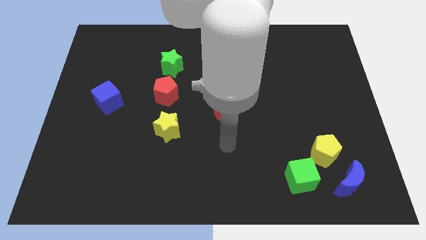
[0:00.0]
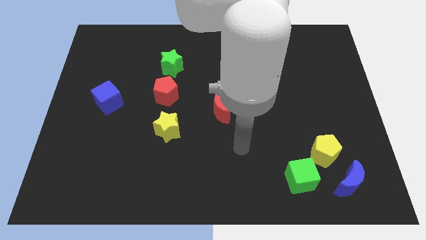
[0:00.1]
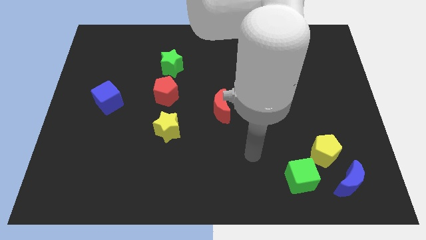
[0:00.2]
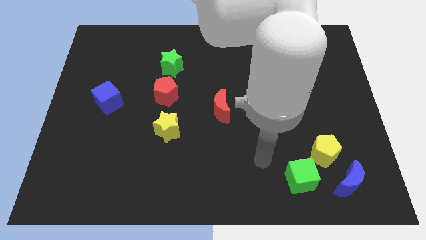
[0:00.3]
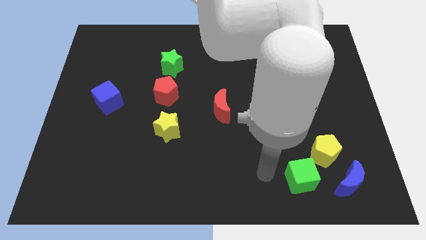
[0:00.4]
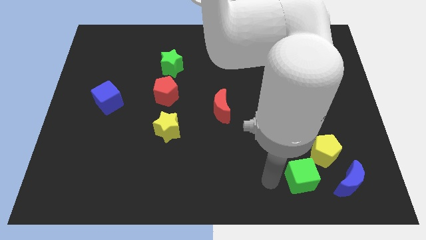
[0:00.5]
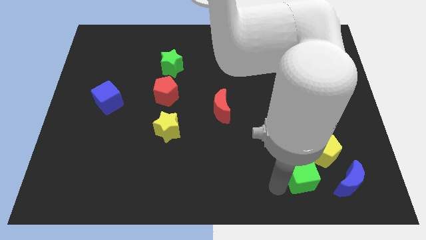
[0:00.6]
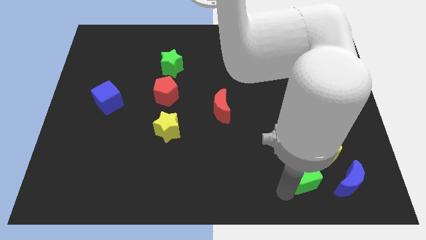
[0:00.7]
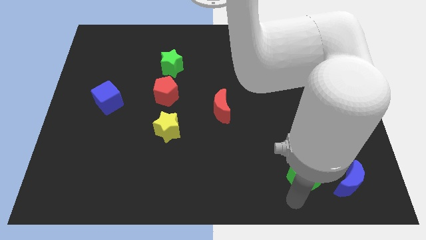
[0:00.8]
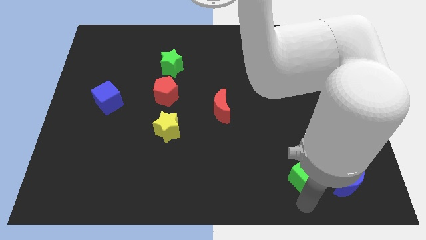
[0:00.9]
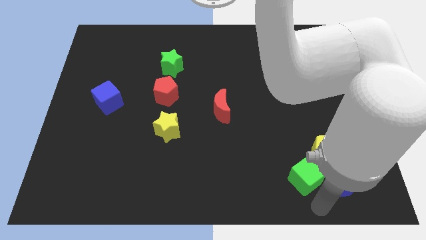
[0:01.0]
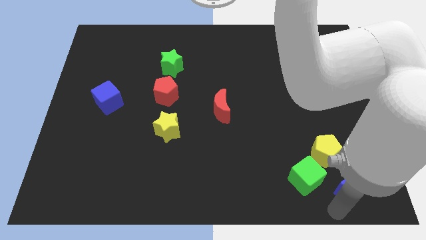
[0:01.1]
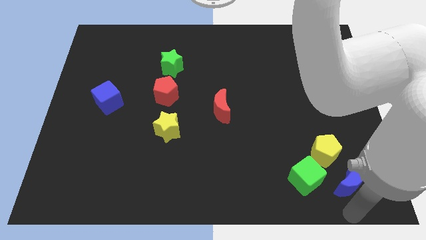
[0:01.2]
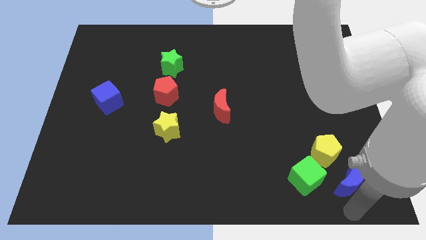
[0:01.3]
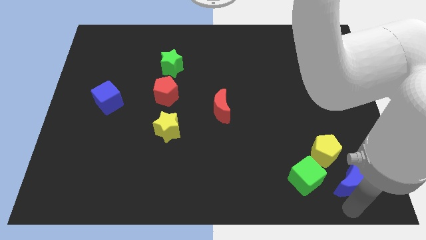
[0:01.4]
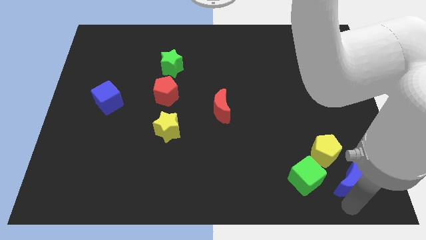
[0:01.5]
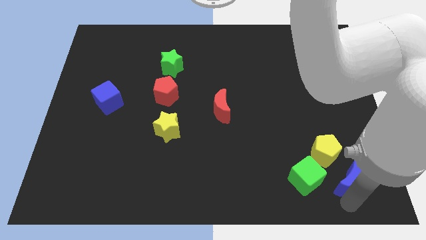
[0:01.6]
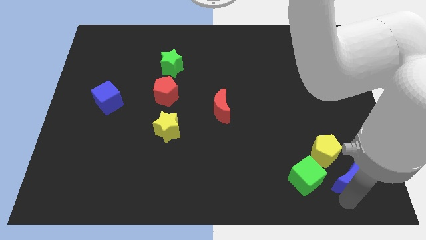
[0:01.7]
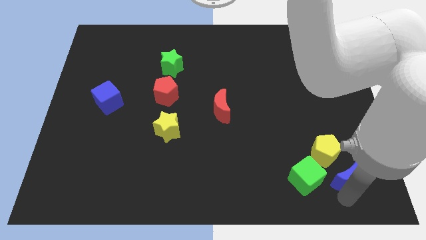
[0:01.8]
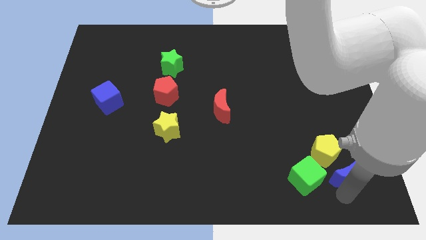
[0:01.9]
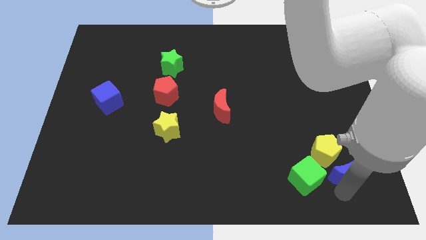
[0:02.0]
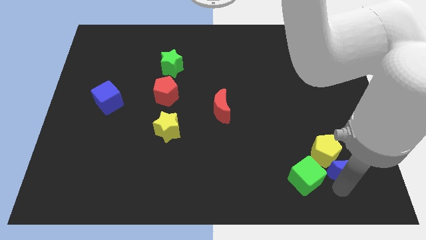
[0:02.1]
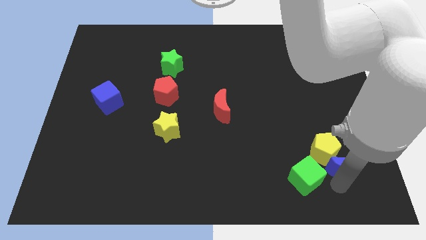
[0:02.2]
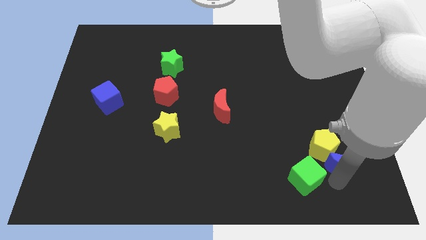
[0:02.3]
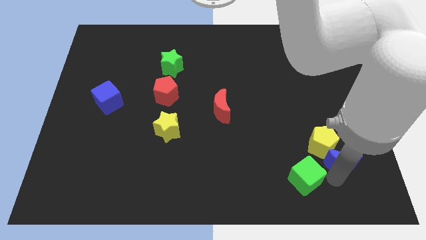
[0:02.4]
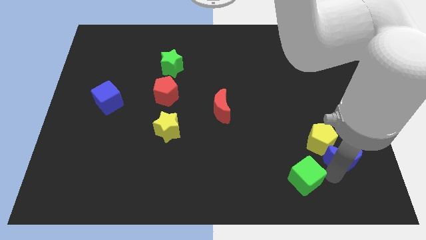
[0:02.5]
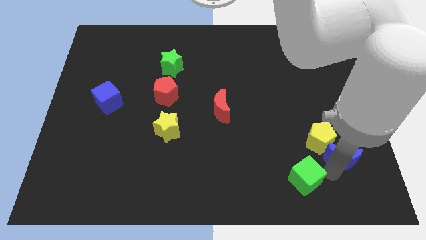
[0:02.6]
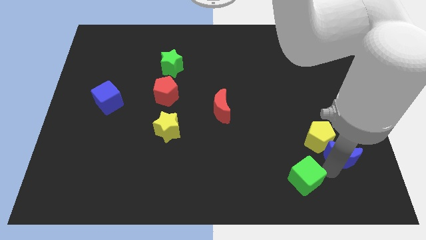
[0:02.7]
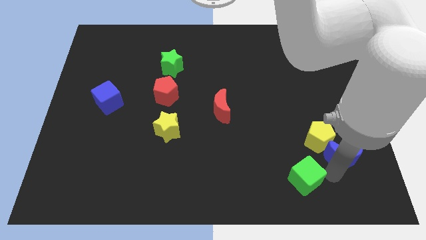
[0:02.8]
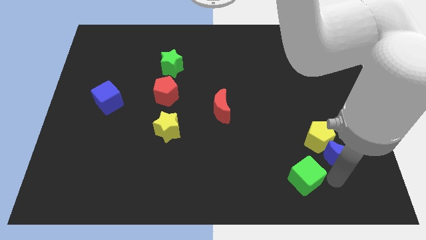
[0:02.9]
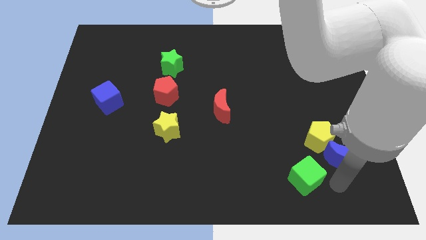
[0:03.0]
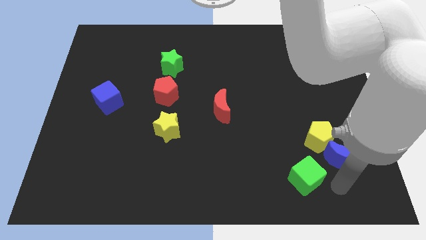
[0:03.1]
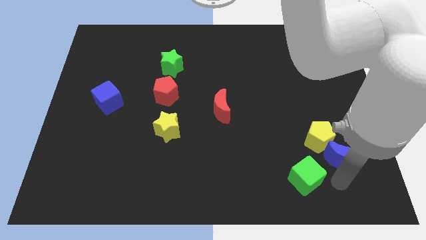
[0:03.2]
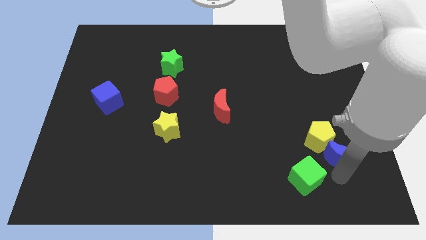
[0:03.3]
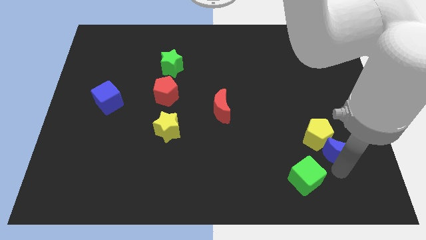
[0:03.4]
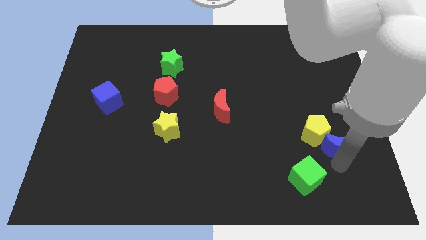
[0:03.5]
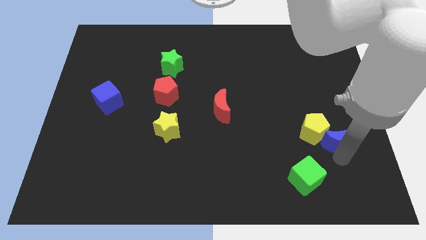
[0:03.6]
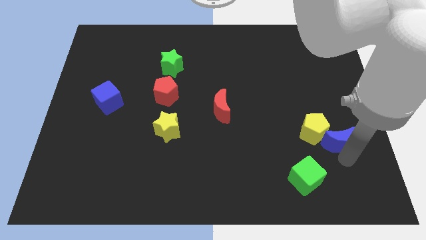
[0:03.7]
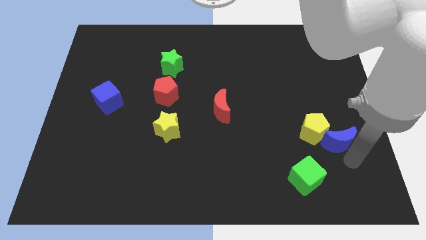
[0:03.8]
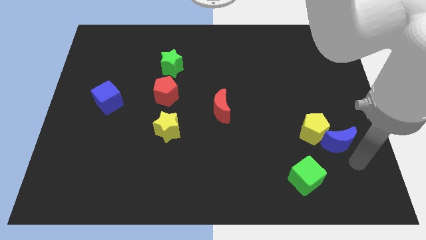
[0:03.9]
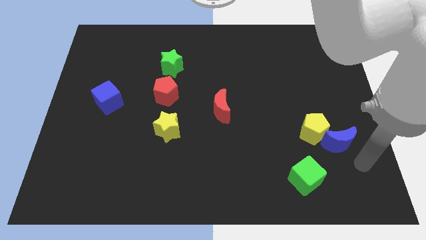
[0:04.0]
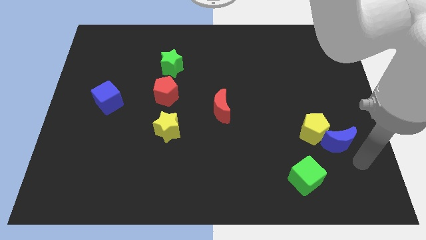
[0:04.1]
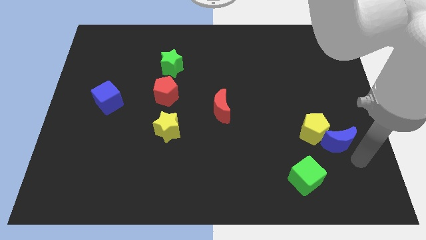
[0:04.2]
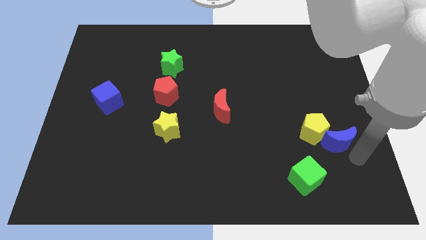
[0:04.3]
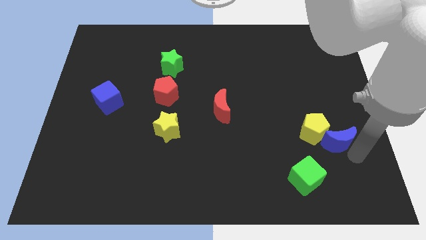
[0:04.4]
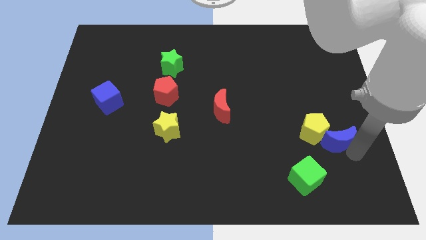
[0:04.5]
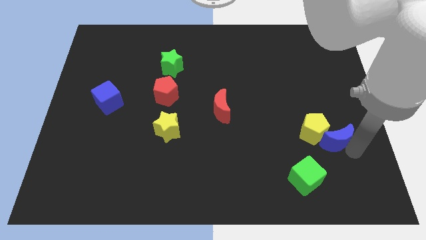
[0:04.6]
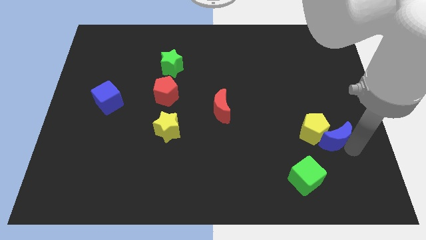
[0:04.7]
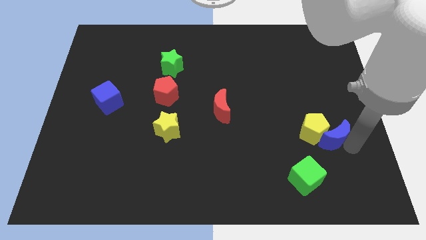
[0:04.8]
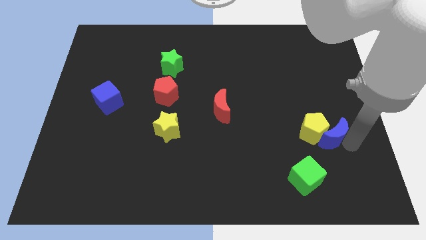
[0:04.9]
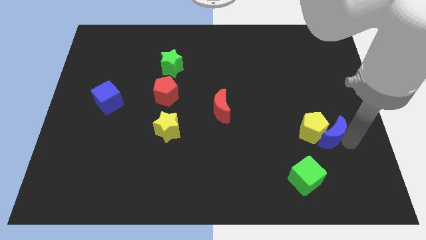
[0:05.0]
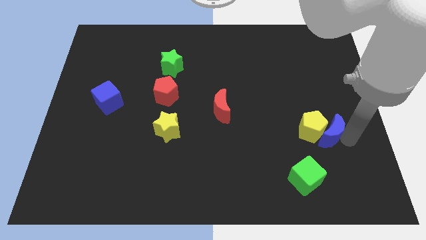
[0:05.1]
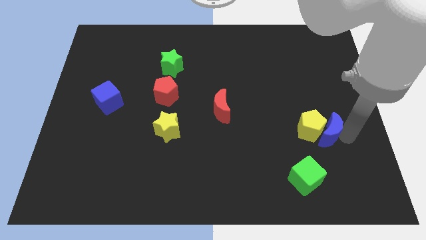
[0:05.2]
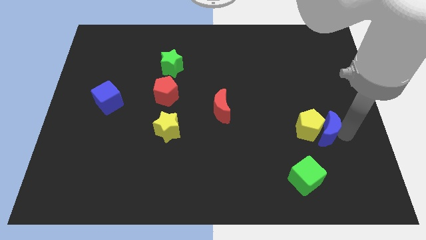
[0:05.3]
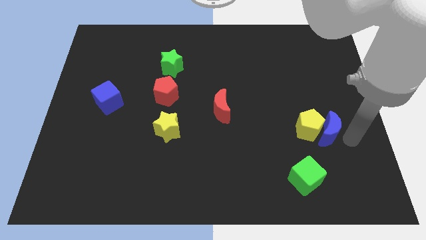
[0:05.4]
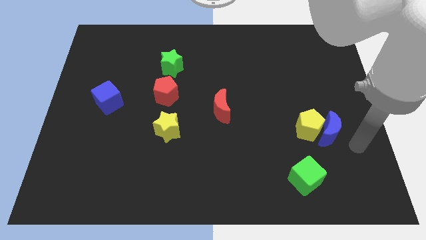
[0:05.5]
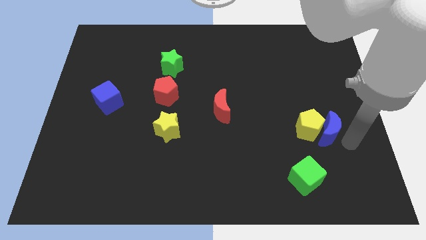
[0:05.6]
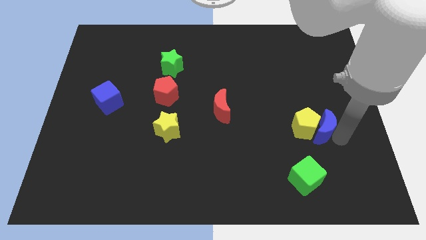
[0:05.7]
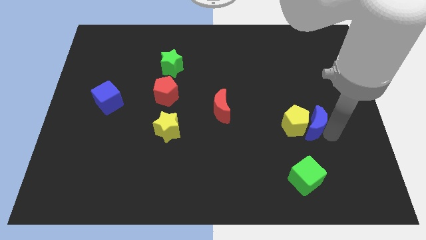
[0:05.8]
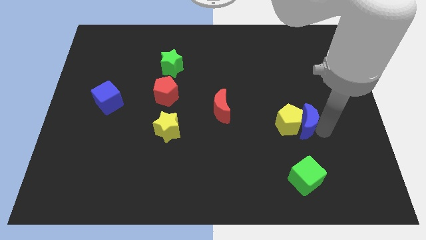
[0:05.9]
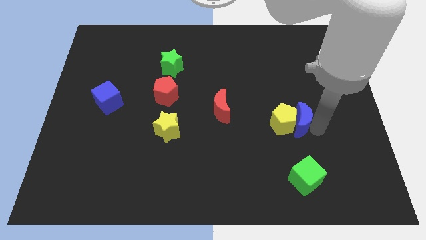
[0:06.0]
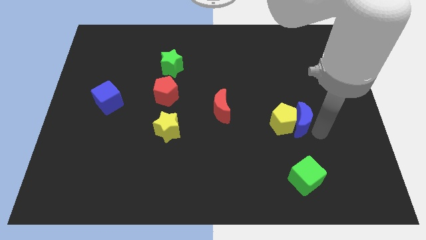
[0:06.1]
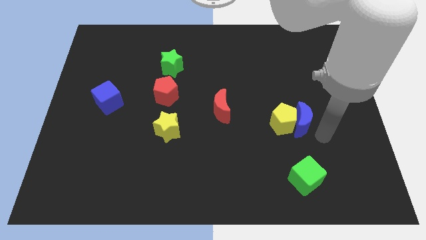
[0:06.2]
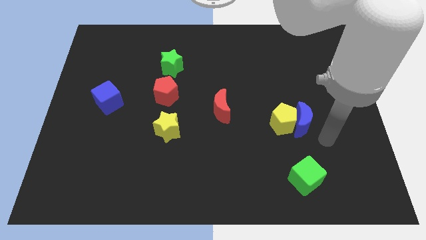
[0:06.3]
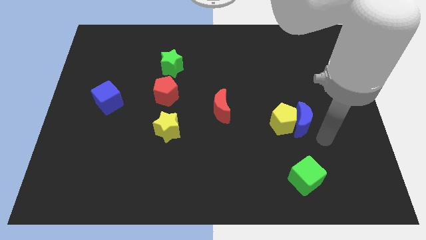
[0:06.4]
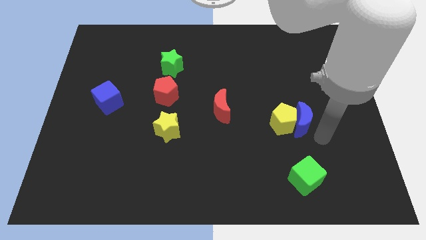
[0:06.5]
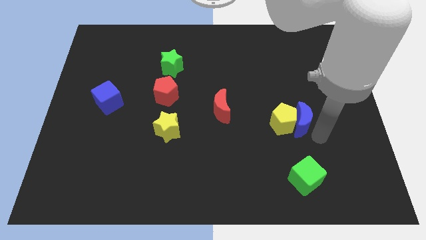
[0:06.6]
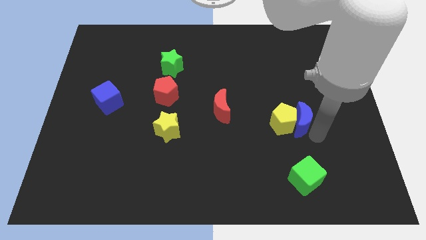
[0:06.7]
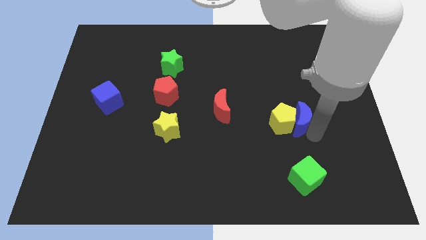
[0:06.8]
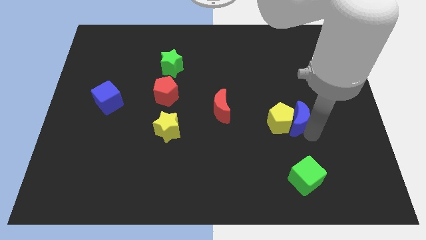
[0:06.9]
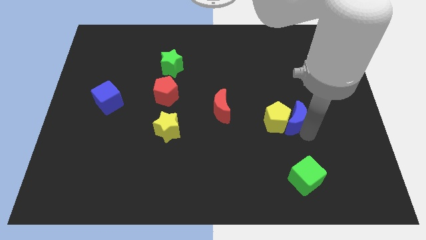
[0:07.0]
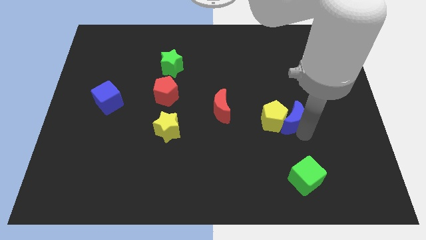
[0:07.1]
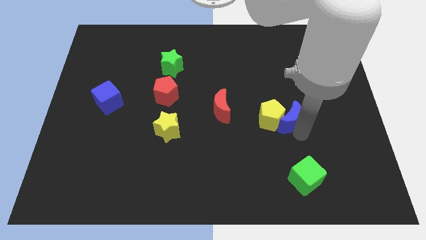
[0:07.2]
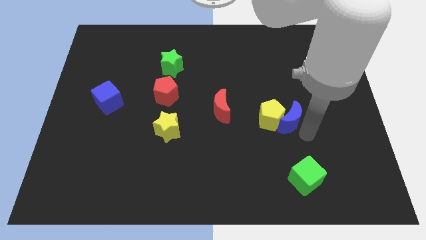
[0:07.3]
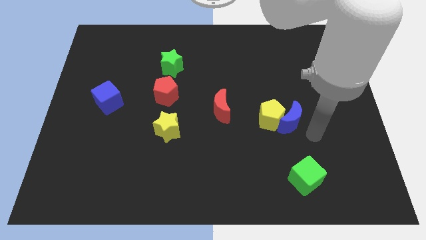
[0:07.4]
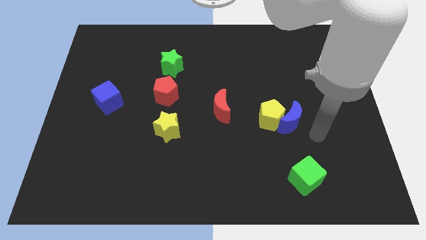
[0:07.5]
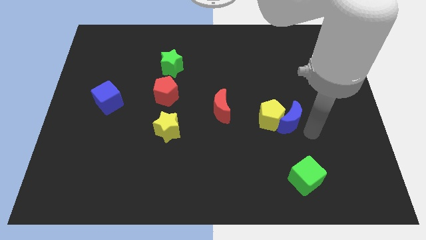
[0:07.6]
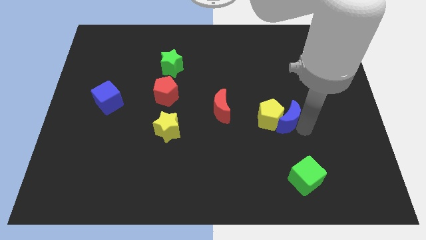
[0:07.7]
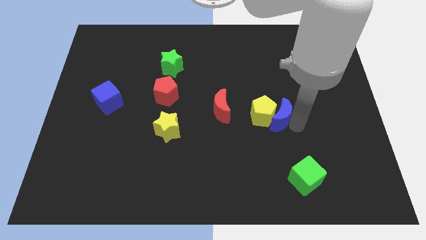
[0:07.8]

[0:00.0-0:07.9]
move the blue moon just right of the red moon
